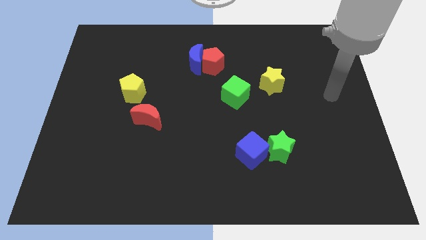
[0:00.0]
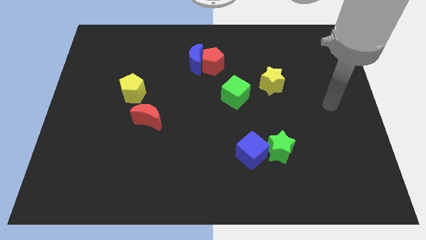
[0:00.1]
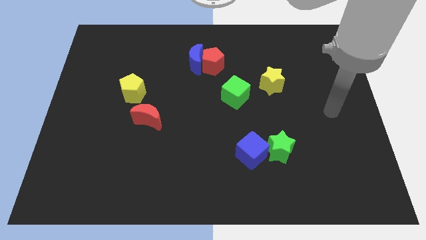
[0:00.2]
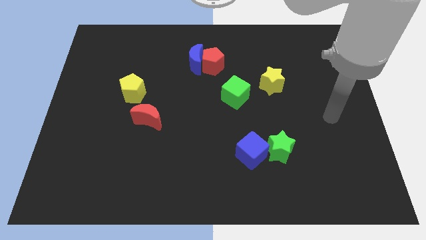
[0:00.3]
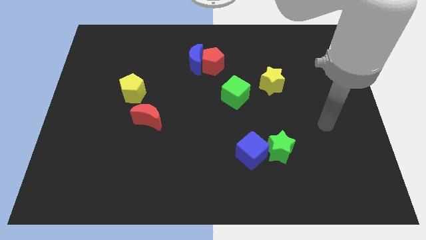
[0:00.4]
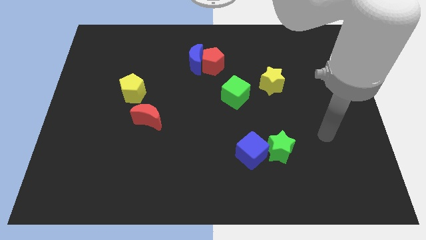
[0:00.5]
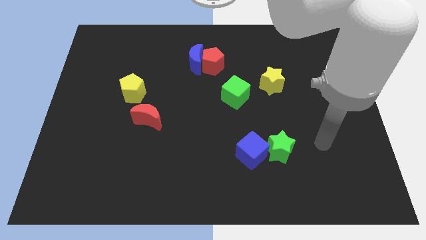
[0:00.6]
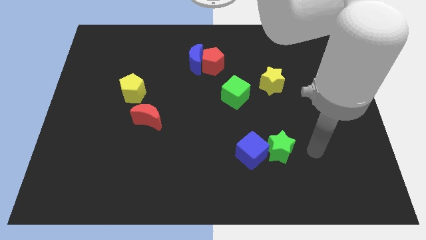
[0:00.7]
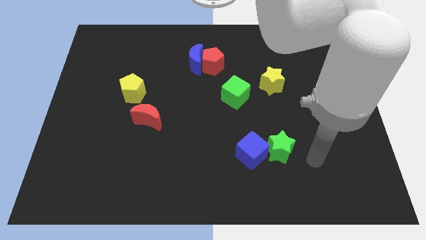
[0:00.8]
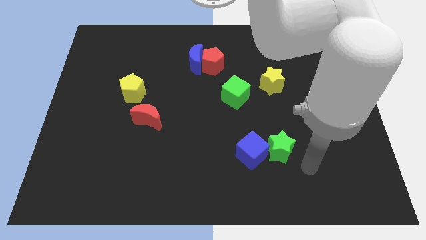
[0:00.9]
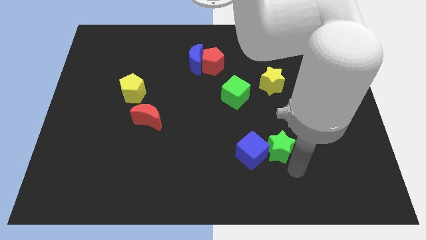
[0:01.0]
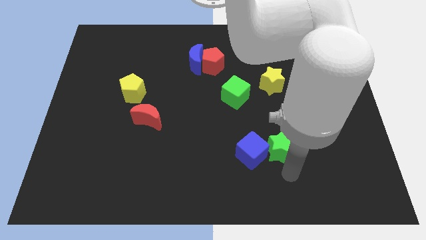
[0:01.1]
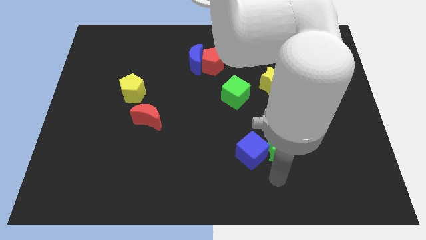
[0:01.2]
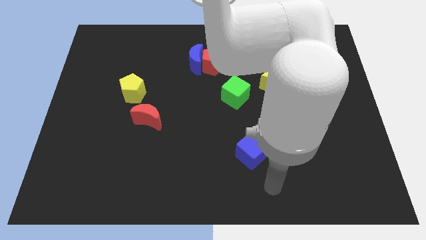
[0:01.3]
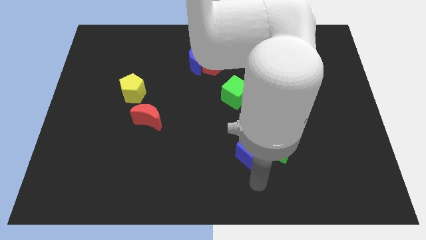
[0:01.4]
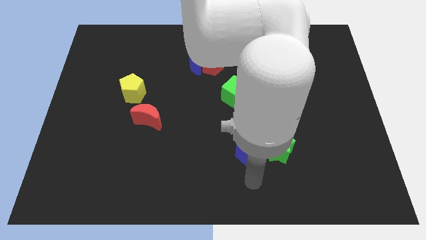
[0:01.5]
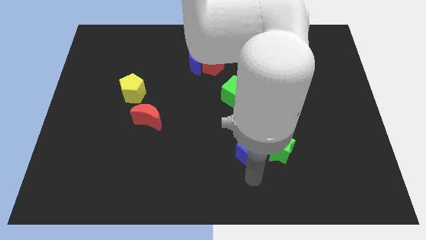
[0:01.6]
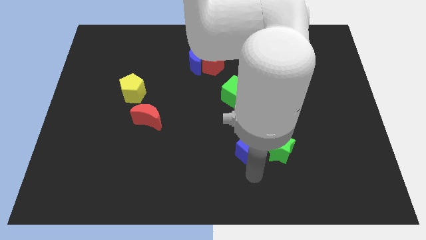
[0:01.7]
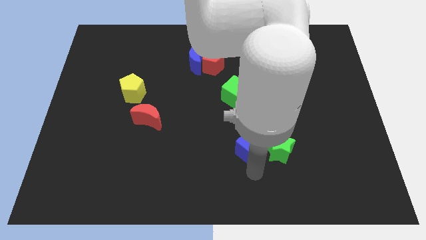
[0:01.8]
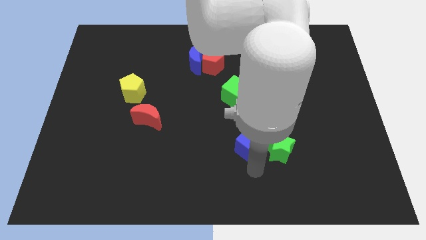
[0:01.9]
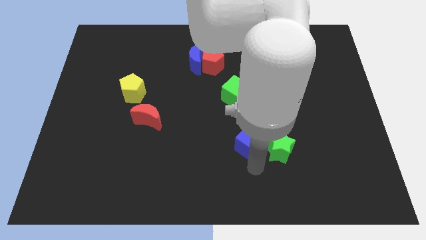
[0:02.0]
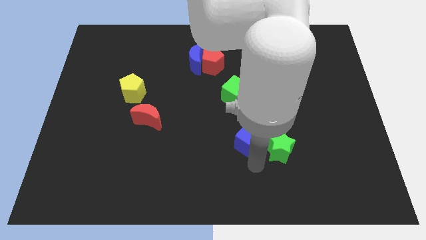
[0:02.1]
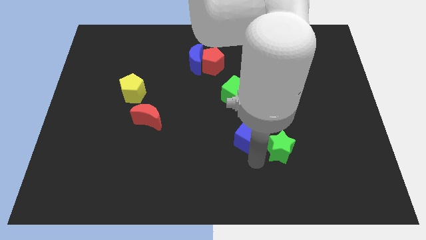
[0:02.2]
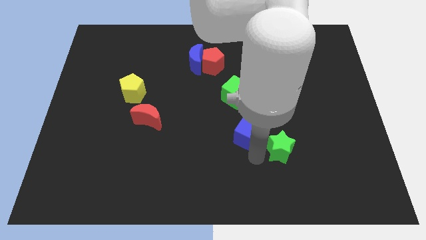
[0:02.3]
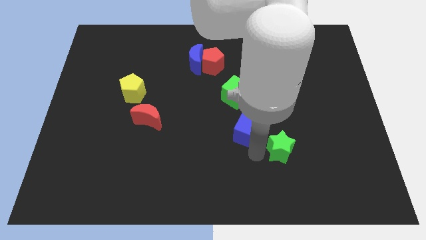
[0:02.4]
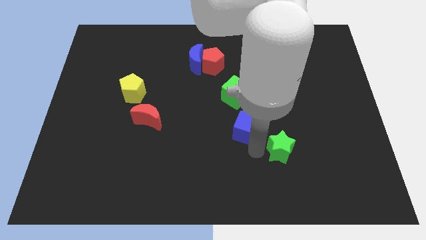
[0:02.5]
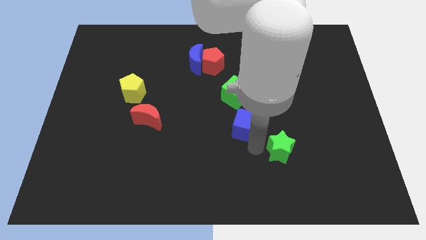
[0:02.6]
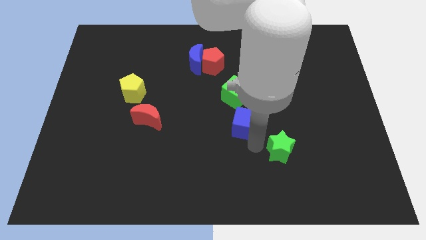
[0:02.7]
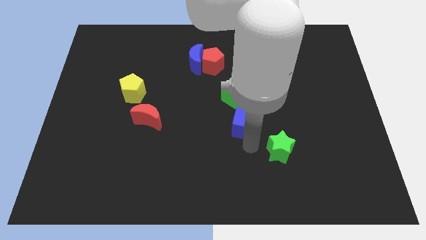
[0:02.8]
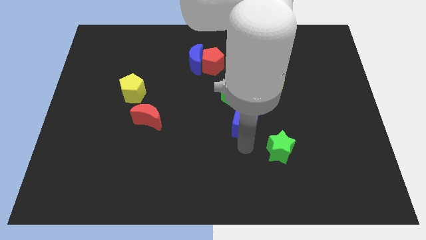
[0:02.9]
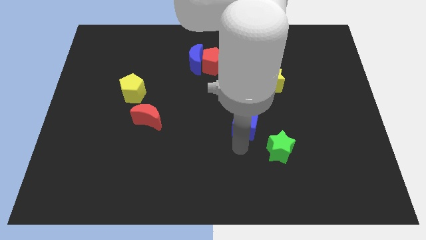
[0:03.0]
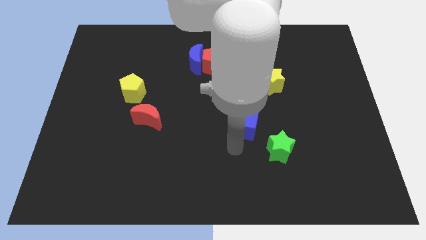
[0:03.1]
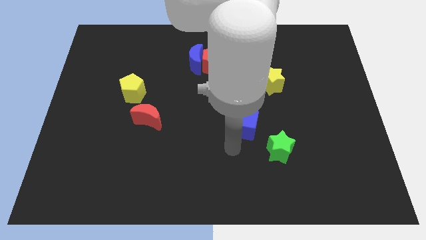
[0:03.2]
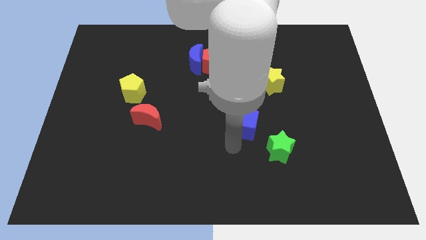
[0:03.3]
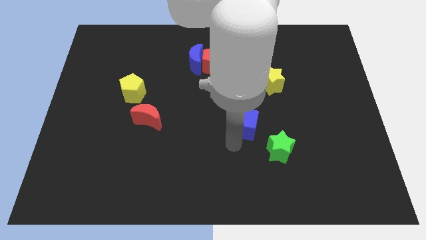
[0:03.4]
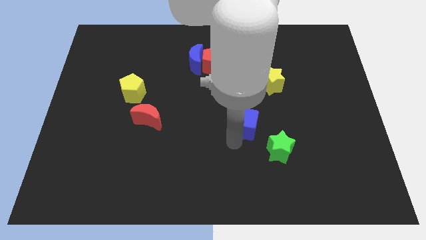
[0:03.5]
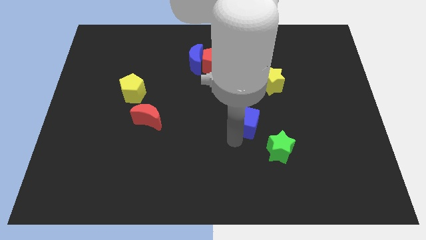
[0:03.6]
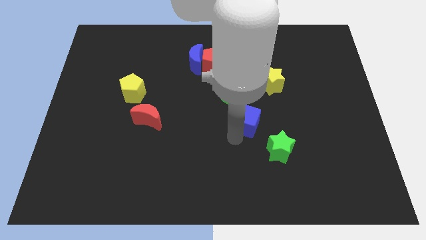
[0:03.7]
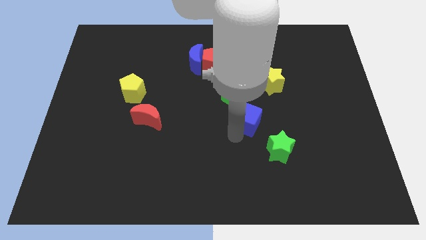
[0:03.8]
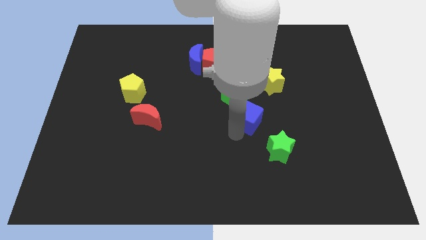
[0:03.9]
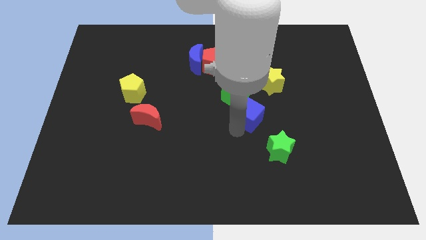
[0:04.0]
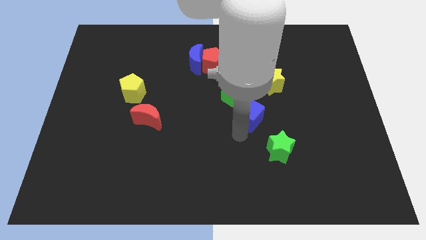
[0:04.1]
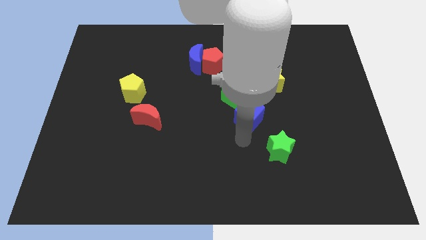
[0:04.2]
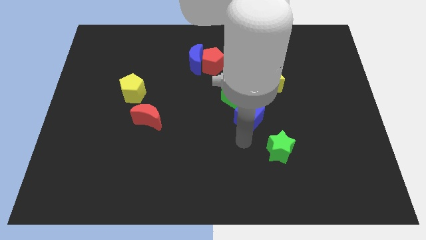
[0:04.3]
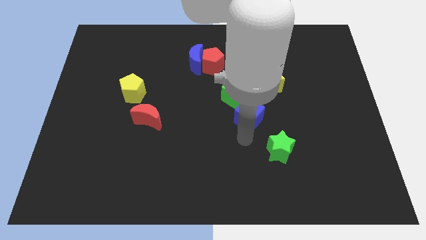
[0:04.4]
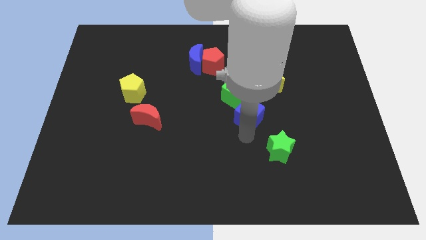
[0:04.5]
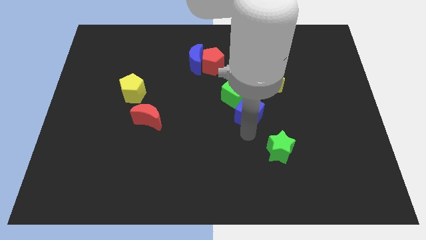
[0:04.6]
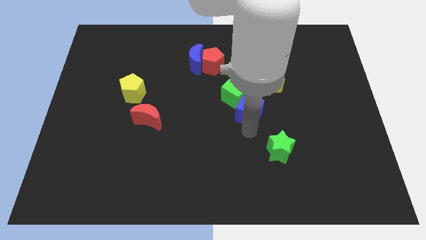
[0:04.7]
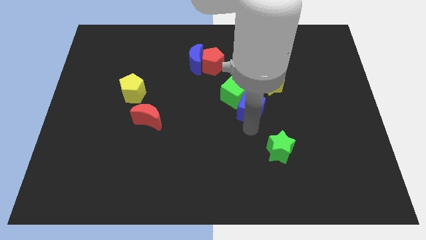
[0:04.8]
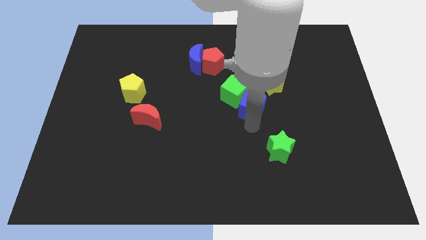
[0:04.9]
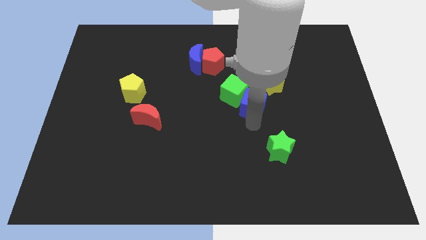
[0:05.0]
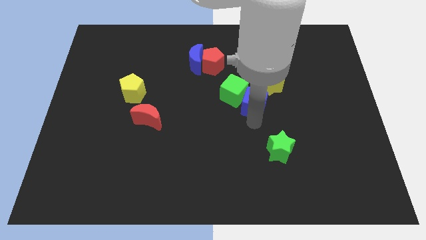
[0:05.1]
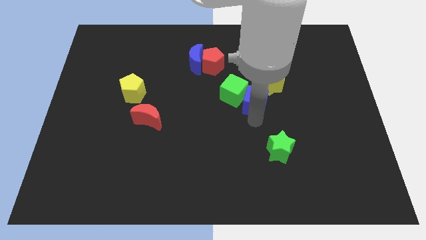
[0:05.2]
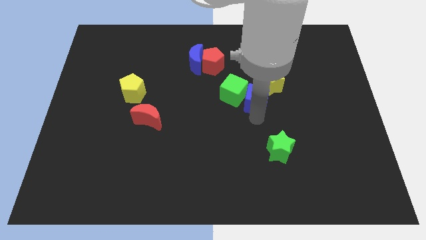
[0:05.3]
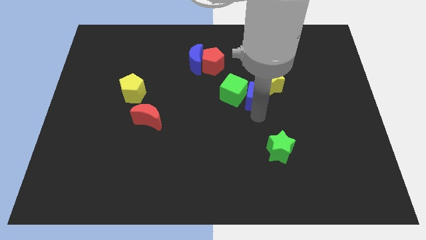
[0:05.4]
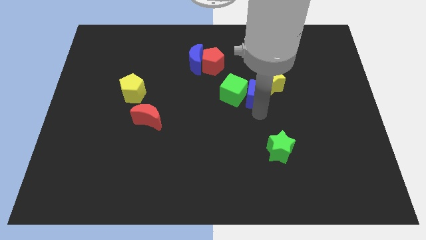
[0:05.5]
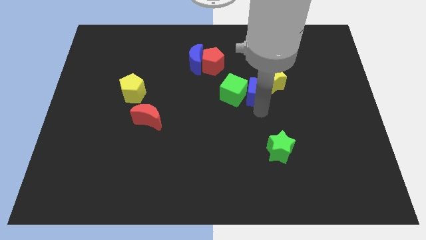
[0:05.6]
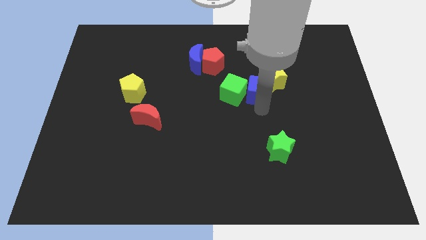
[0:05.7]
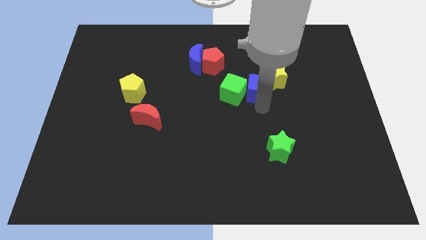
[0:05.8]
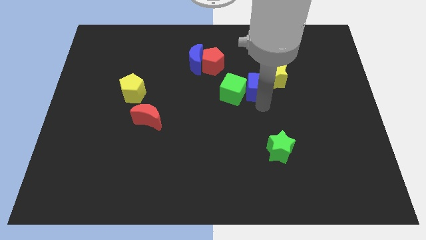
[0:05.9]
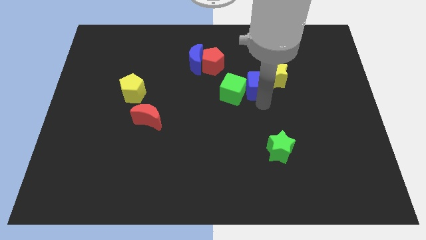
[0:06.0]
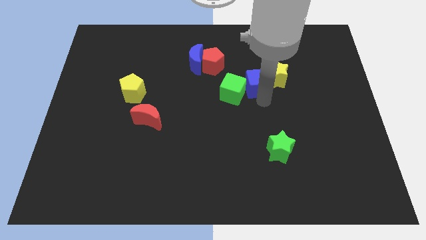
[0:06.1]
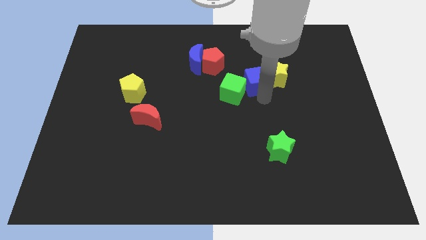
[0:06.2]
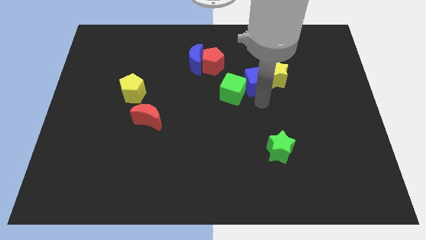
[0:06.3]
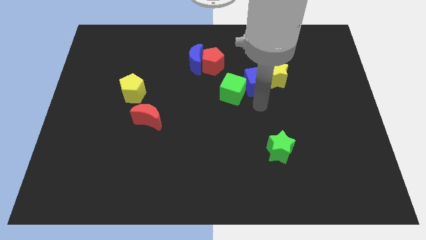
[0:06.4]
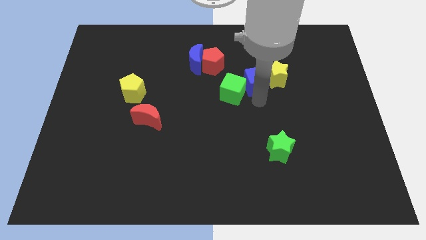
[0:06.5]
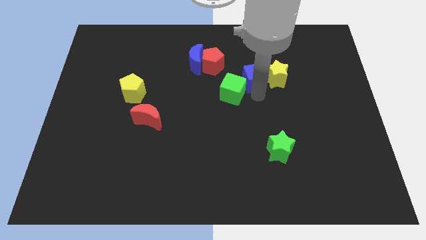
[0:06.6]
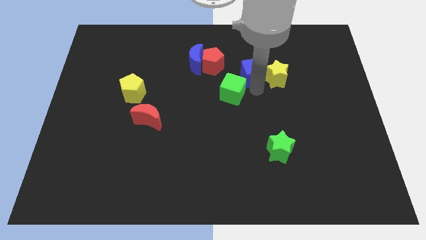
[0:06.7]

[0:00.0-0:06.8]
put the blue cube to the right side of the red pentagon

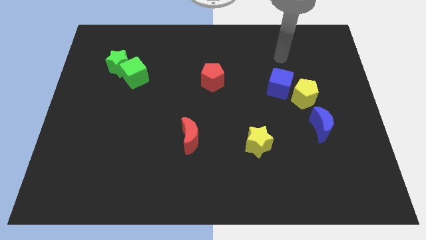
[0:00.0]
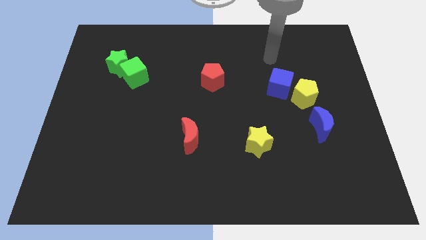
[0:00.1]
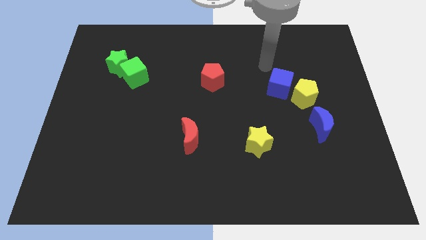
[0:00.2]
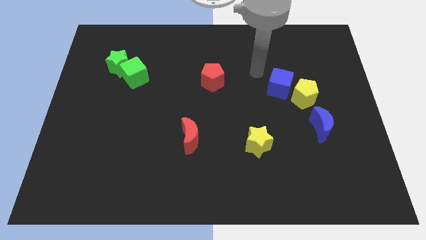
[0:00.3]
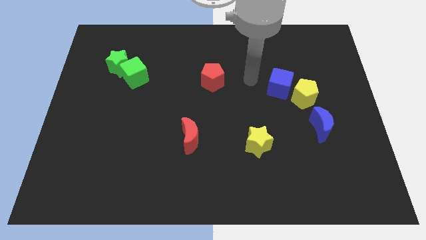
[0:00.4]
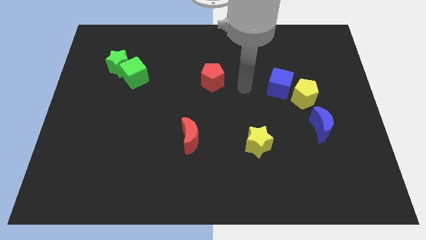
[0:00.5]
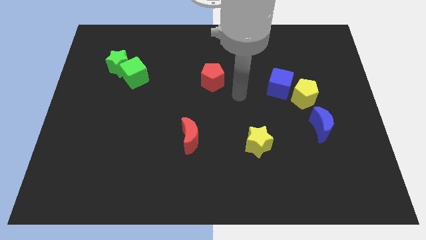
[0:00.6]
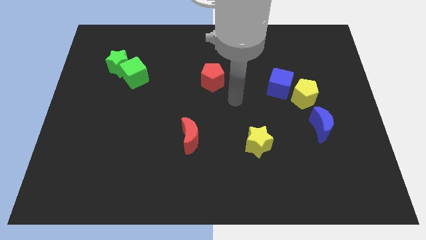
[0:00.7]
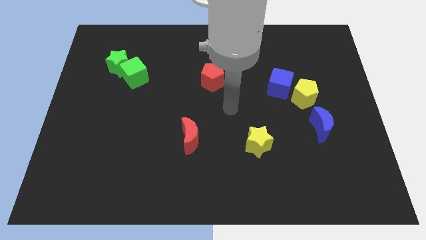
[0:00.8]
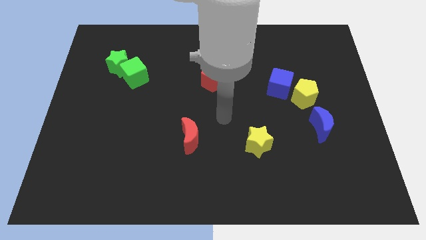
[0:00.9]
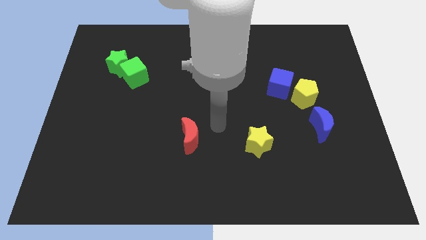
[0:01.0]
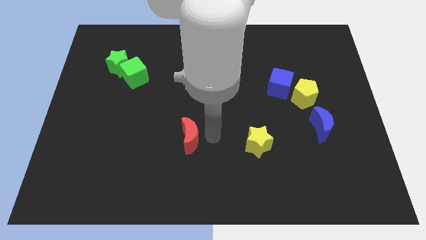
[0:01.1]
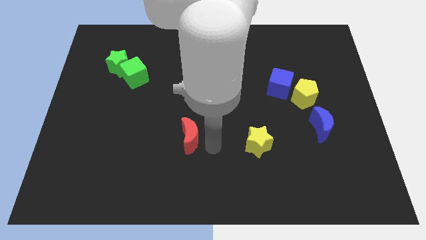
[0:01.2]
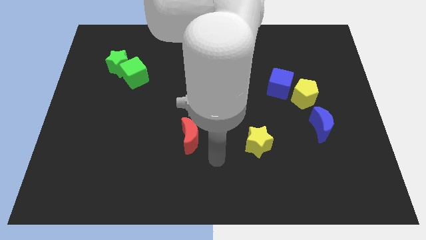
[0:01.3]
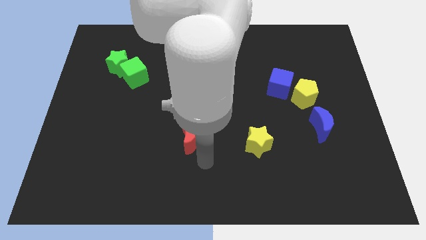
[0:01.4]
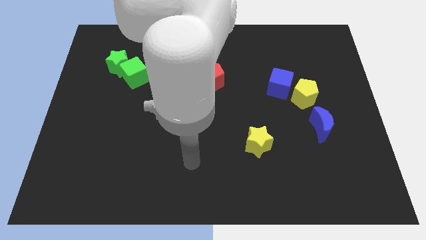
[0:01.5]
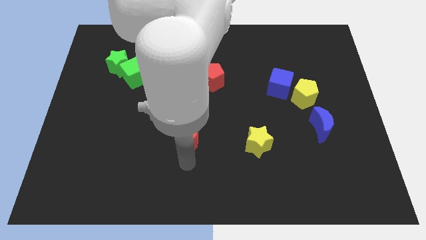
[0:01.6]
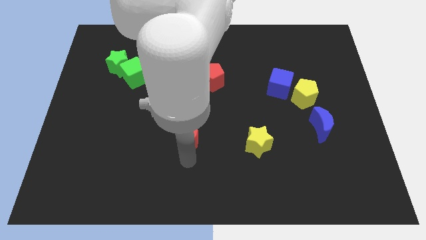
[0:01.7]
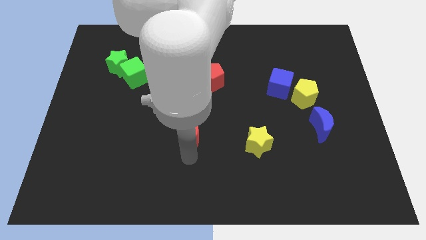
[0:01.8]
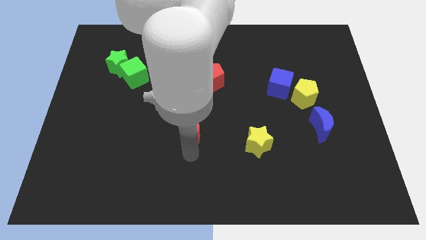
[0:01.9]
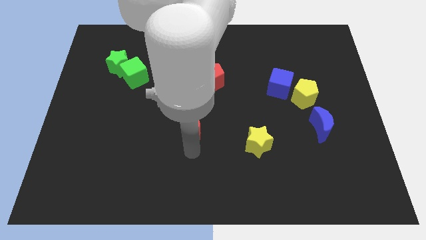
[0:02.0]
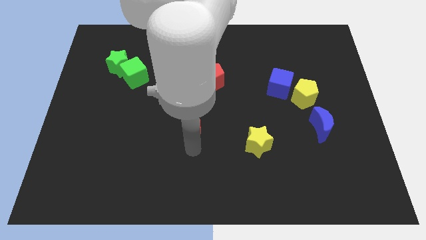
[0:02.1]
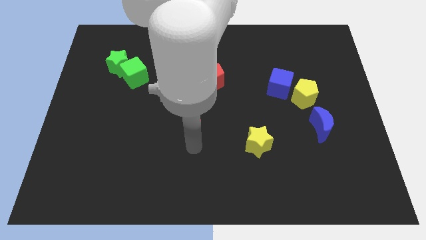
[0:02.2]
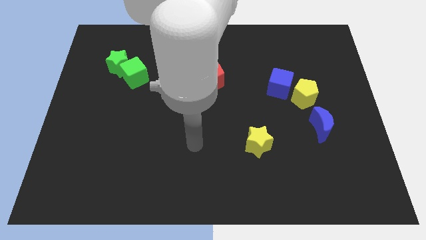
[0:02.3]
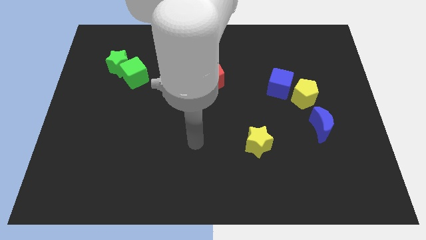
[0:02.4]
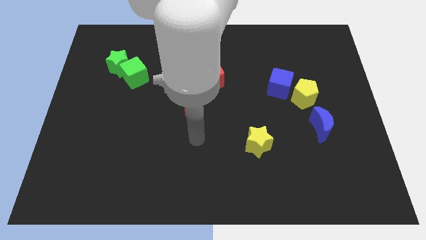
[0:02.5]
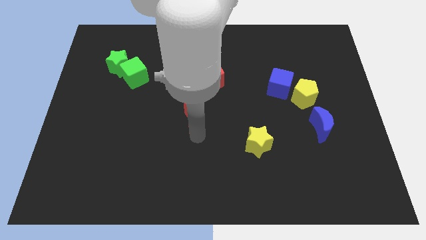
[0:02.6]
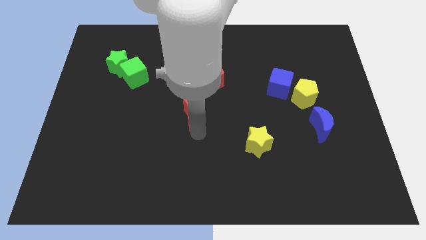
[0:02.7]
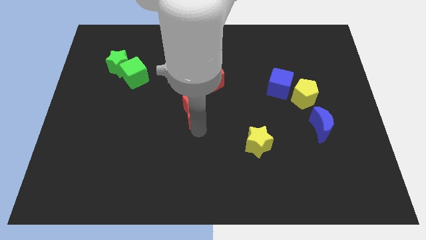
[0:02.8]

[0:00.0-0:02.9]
put the red moon to the bottom left of the red pentagon
